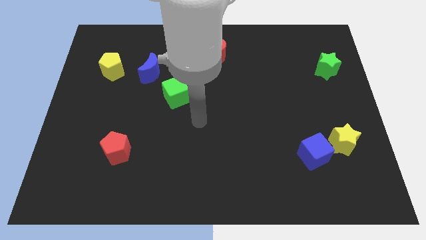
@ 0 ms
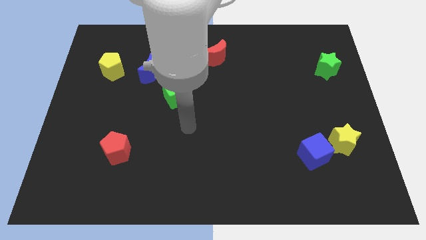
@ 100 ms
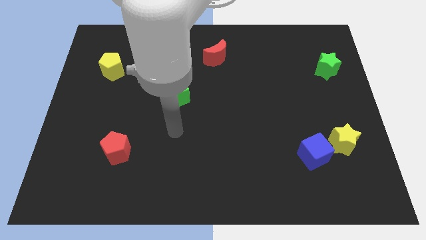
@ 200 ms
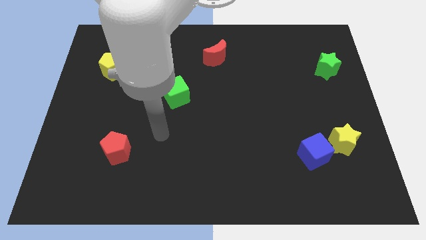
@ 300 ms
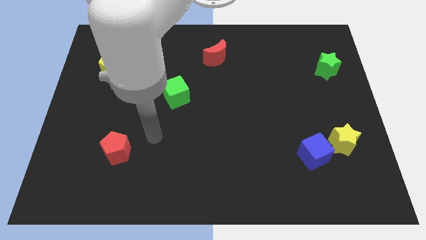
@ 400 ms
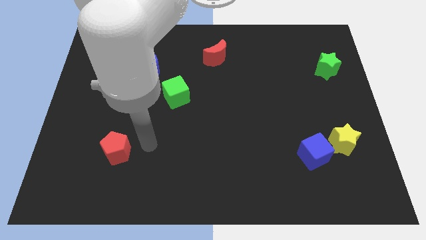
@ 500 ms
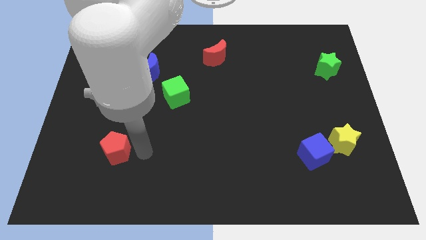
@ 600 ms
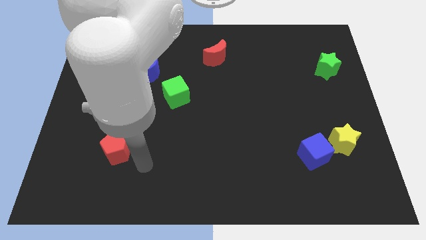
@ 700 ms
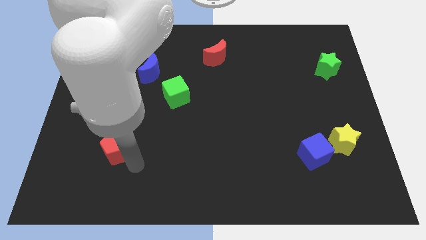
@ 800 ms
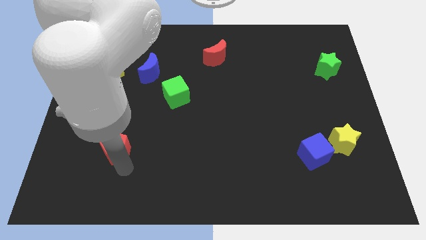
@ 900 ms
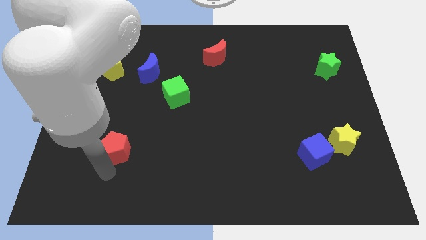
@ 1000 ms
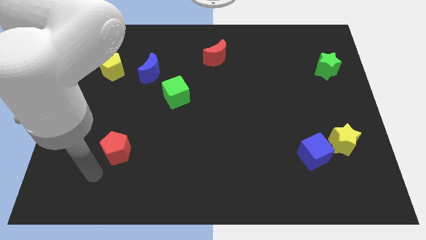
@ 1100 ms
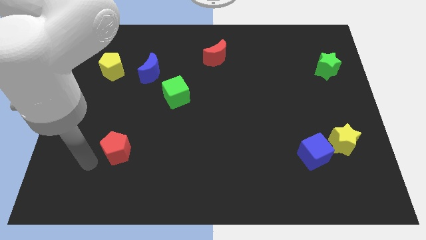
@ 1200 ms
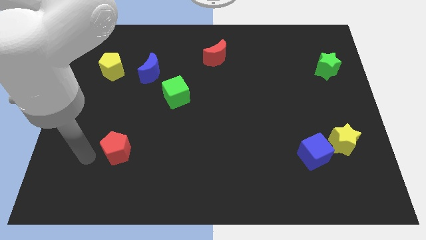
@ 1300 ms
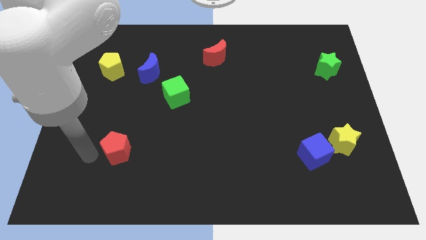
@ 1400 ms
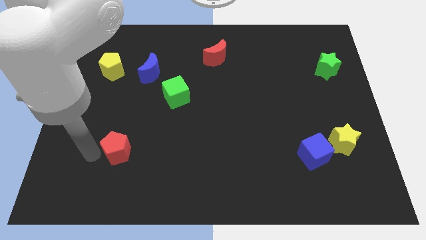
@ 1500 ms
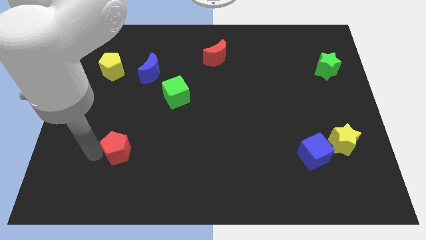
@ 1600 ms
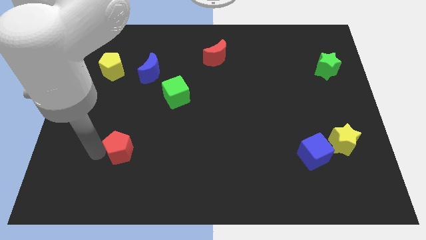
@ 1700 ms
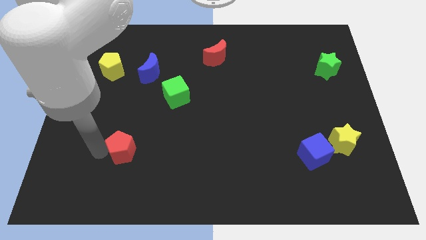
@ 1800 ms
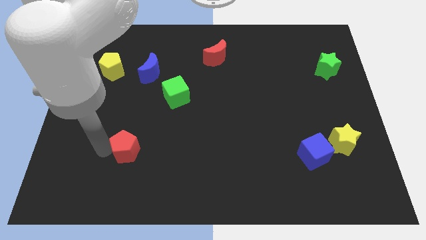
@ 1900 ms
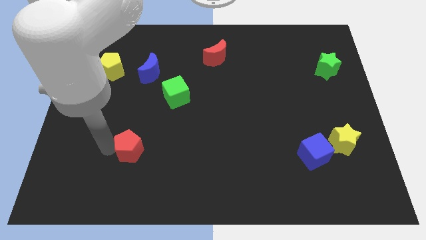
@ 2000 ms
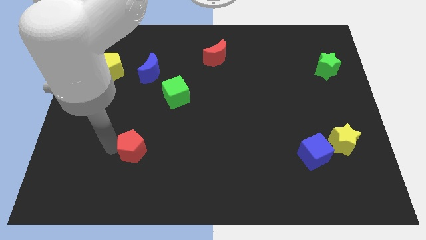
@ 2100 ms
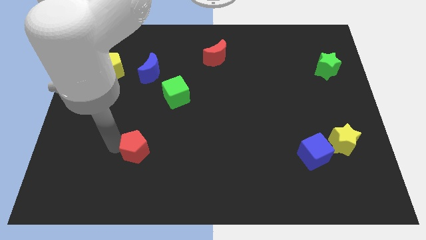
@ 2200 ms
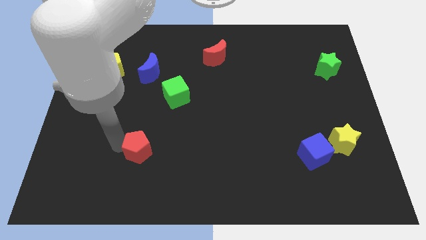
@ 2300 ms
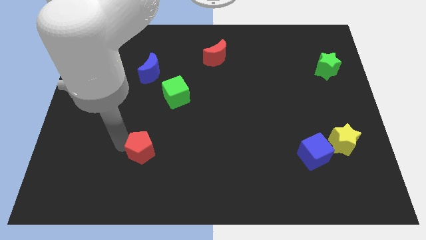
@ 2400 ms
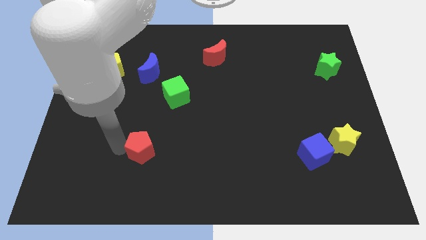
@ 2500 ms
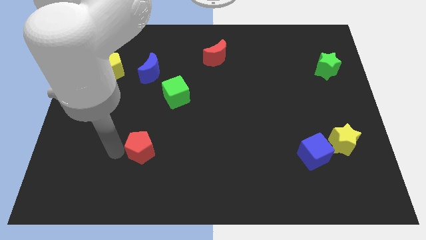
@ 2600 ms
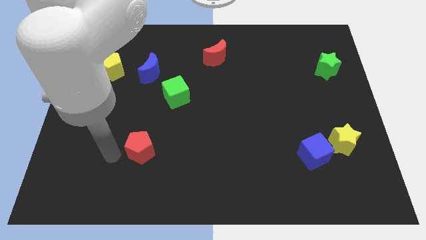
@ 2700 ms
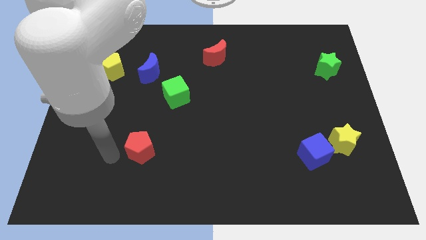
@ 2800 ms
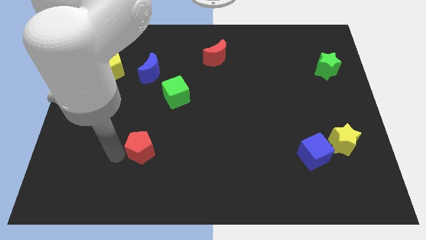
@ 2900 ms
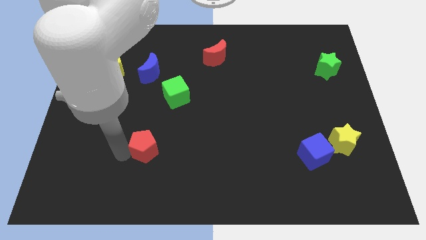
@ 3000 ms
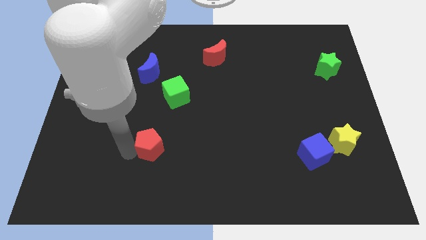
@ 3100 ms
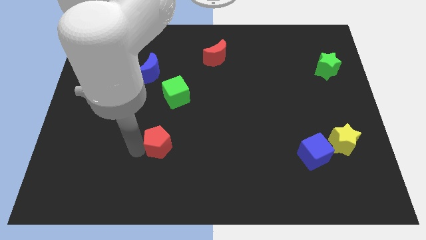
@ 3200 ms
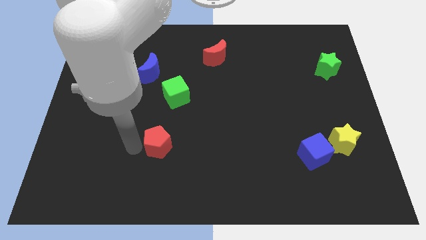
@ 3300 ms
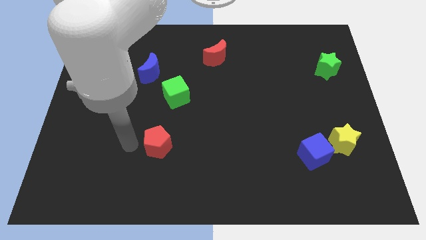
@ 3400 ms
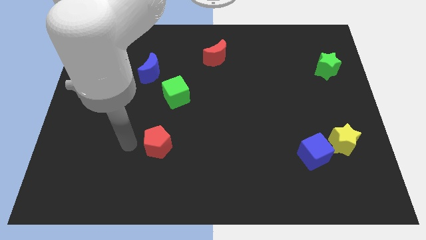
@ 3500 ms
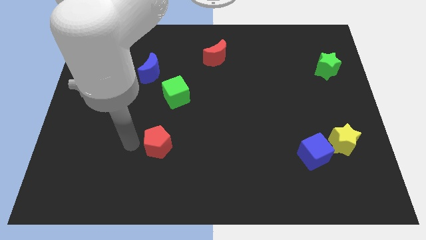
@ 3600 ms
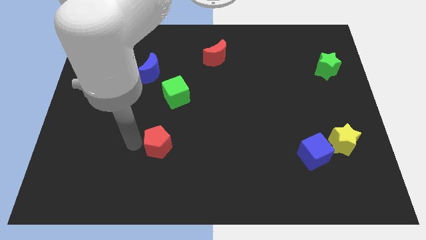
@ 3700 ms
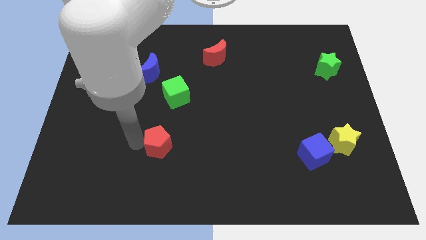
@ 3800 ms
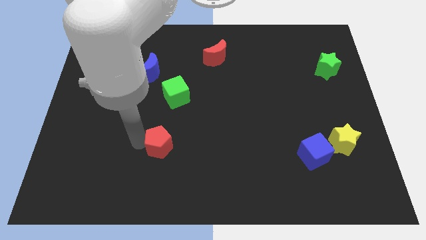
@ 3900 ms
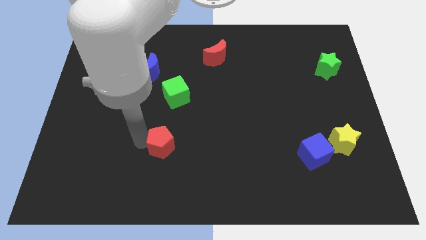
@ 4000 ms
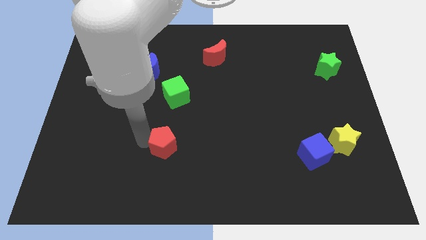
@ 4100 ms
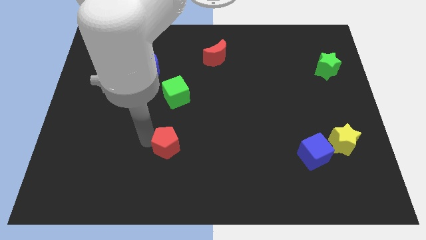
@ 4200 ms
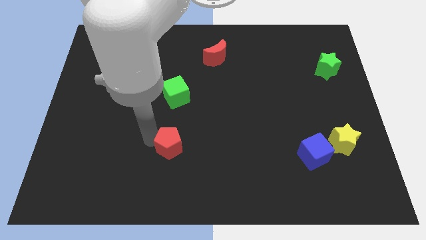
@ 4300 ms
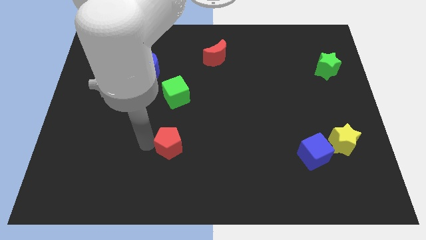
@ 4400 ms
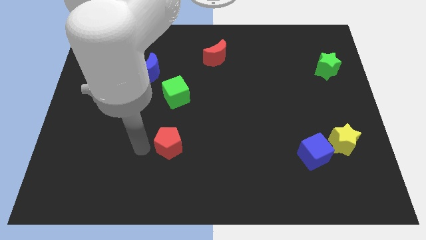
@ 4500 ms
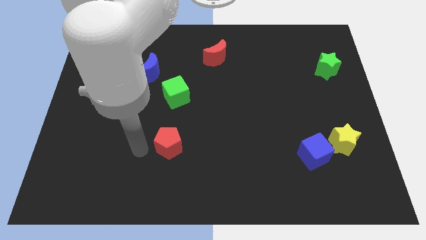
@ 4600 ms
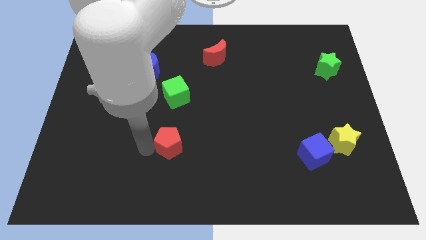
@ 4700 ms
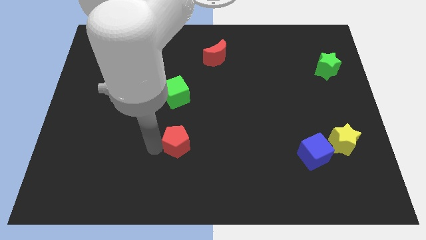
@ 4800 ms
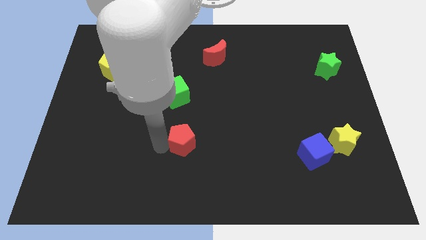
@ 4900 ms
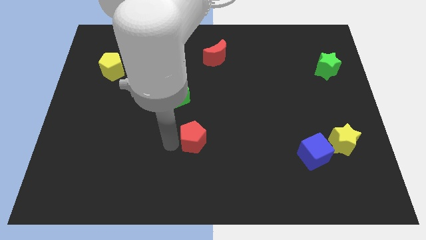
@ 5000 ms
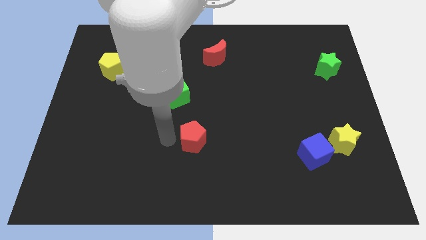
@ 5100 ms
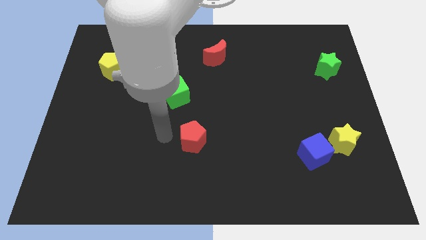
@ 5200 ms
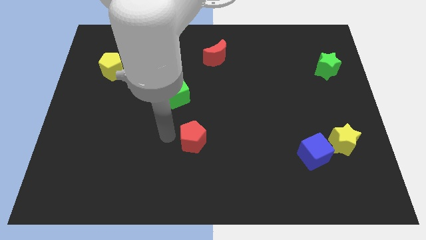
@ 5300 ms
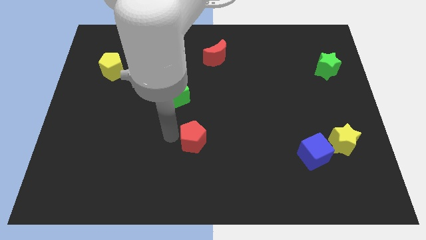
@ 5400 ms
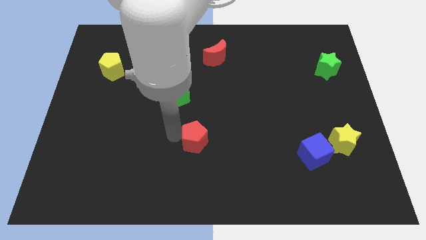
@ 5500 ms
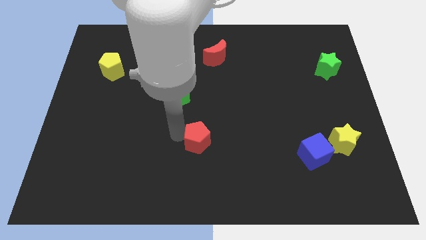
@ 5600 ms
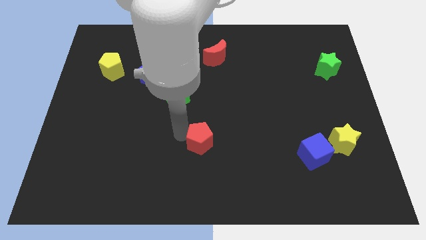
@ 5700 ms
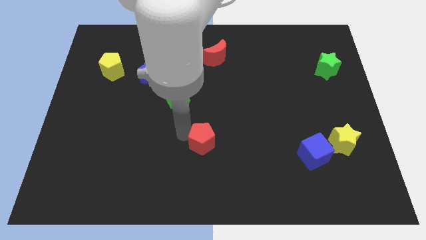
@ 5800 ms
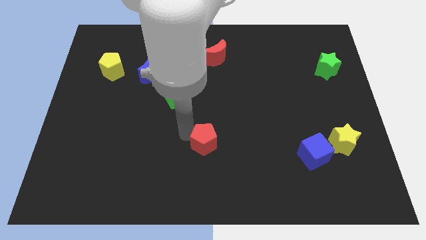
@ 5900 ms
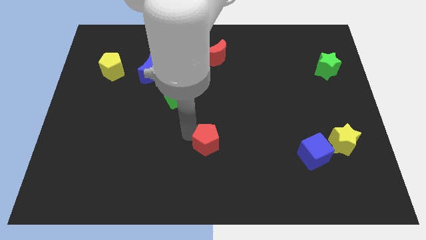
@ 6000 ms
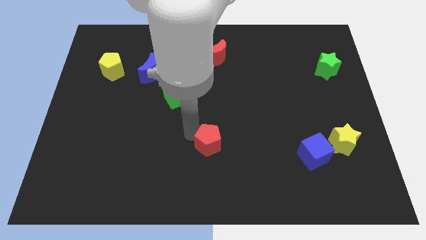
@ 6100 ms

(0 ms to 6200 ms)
slide the red pentagon to the right

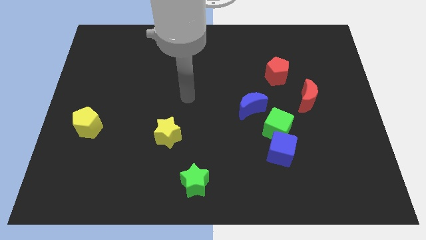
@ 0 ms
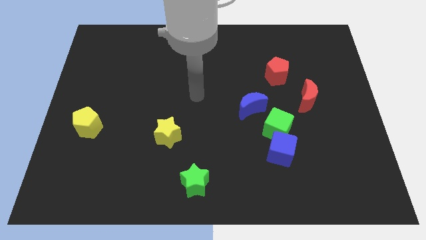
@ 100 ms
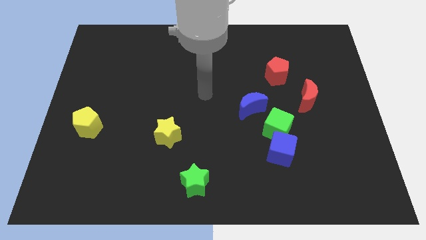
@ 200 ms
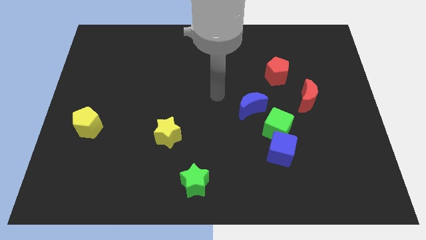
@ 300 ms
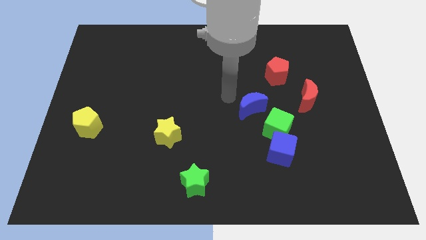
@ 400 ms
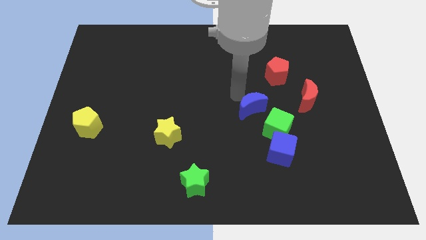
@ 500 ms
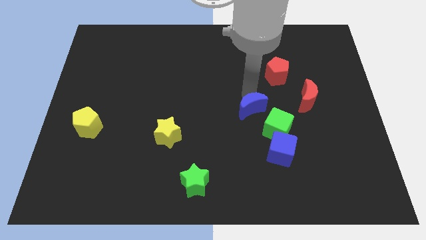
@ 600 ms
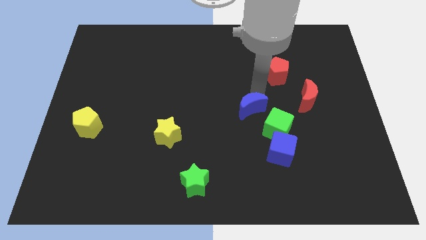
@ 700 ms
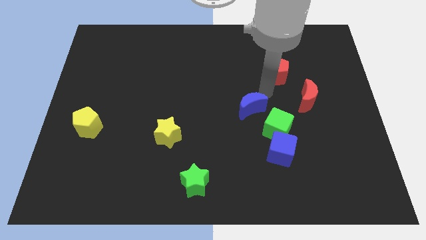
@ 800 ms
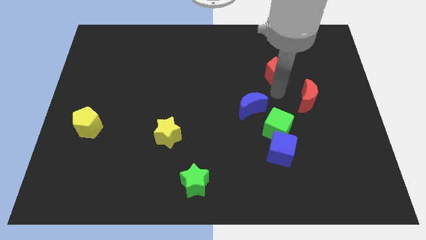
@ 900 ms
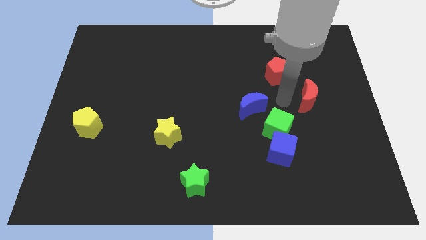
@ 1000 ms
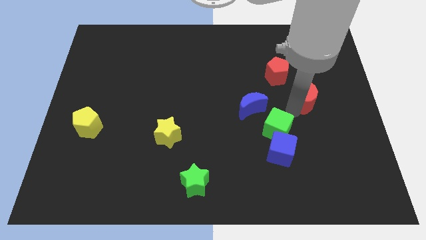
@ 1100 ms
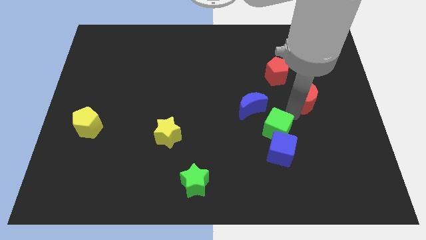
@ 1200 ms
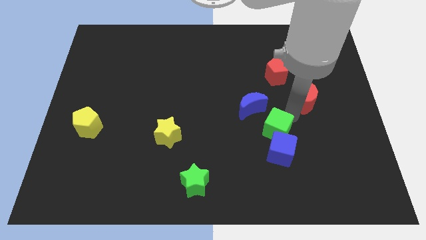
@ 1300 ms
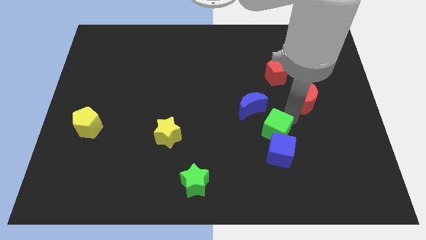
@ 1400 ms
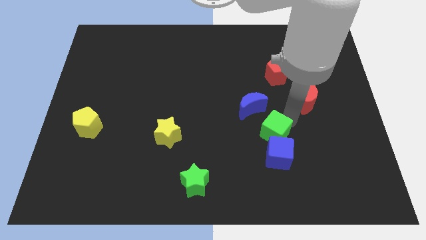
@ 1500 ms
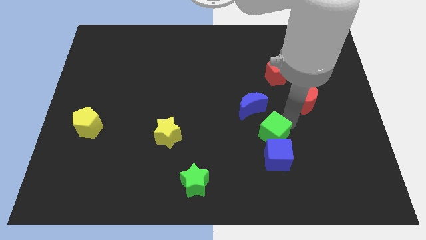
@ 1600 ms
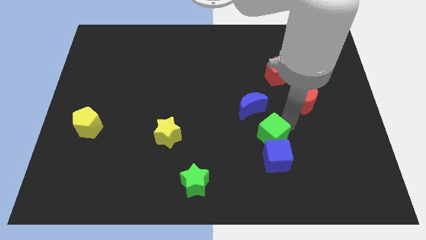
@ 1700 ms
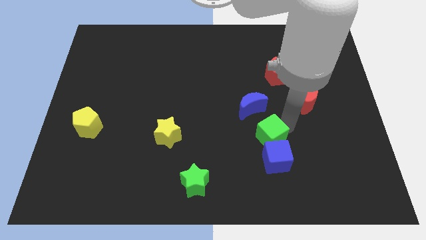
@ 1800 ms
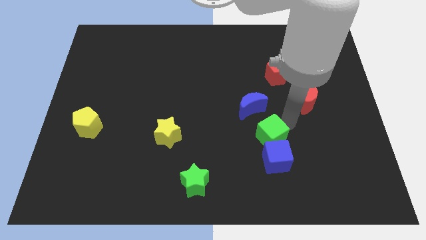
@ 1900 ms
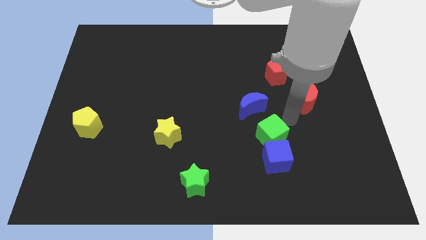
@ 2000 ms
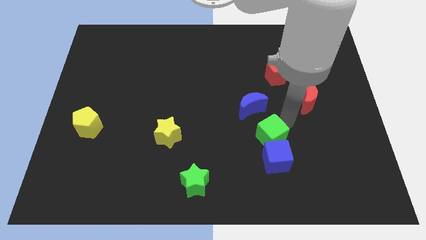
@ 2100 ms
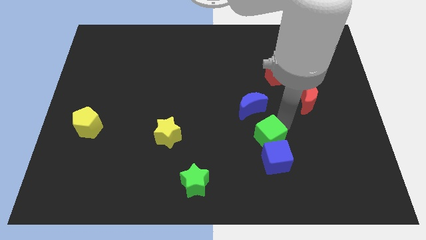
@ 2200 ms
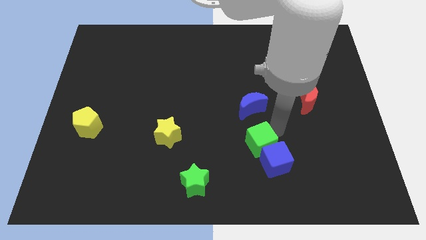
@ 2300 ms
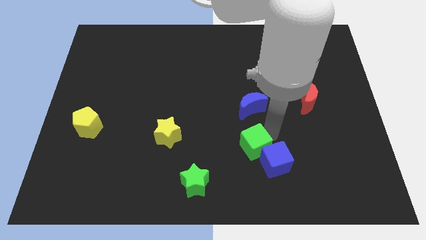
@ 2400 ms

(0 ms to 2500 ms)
move the green cube down and left slightly
